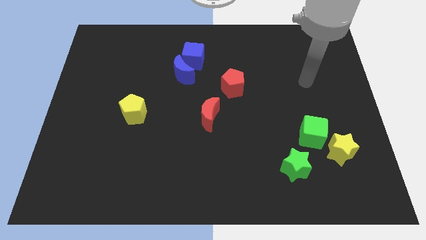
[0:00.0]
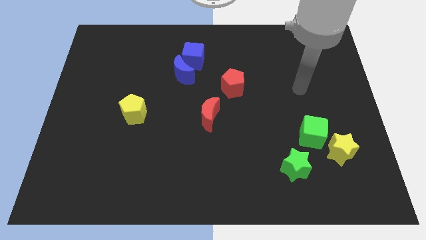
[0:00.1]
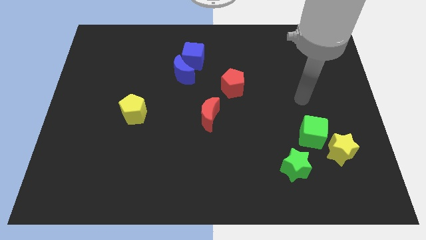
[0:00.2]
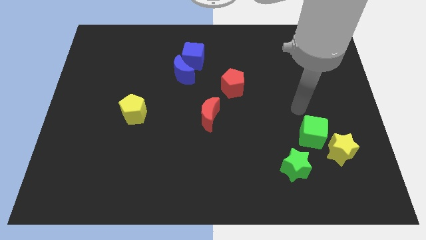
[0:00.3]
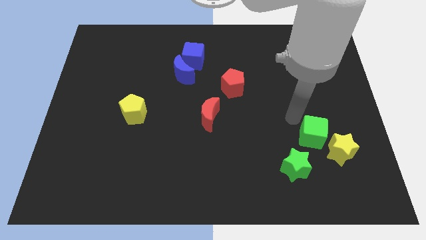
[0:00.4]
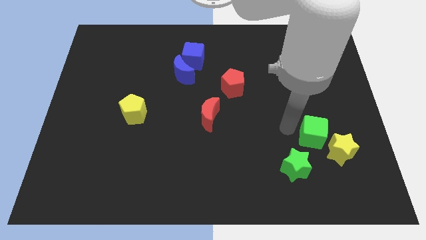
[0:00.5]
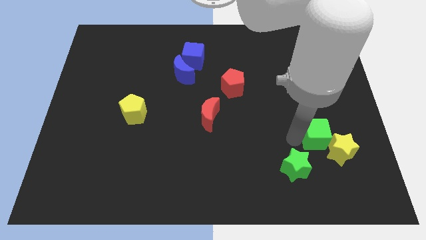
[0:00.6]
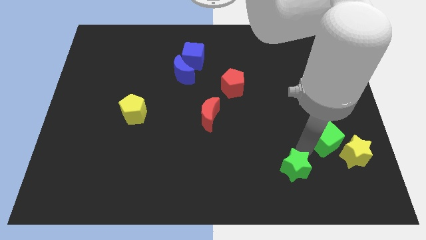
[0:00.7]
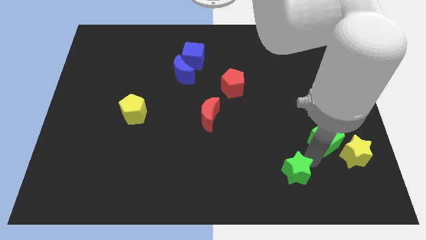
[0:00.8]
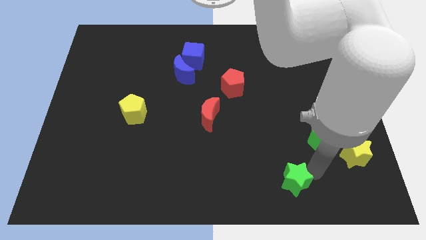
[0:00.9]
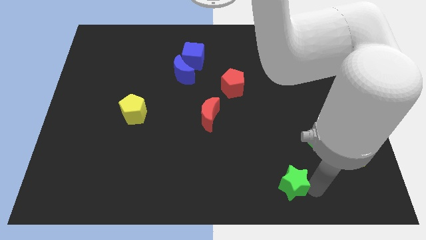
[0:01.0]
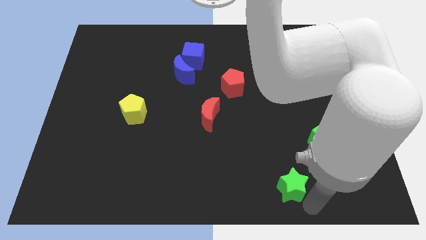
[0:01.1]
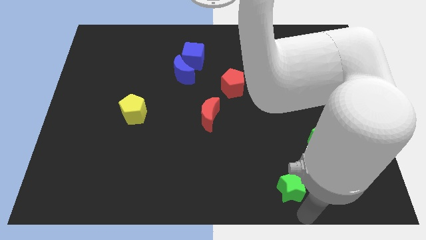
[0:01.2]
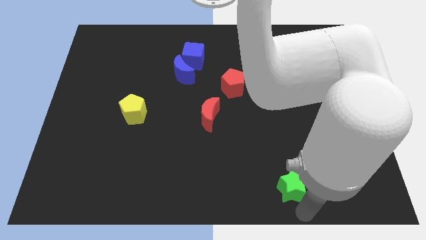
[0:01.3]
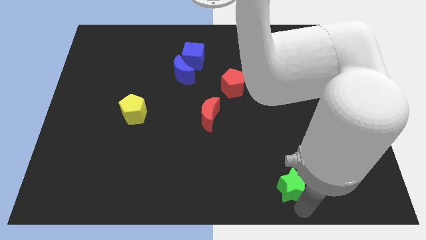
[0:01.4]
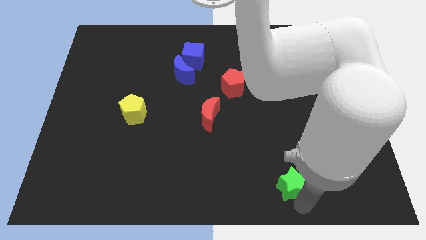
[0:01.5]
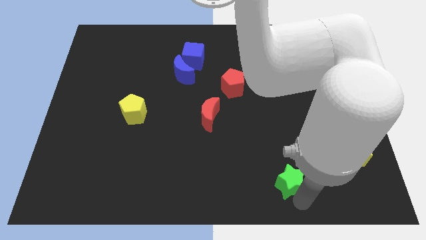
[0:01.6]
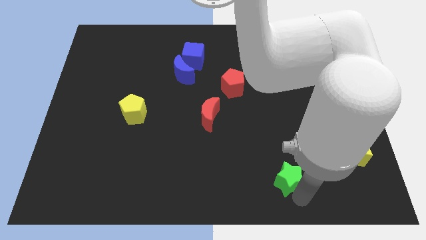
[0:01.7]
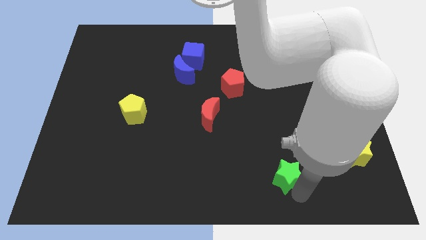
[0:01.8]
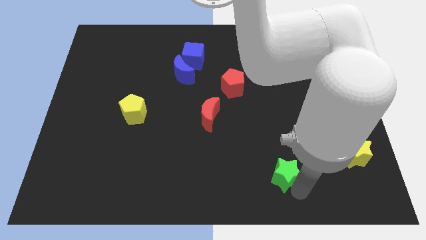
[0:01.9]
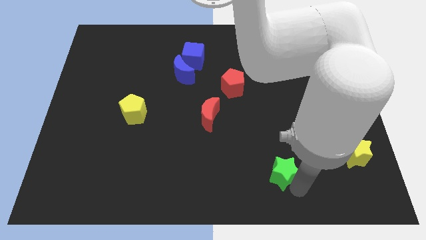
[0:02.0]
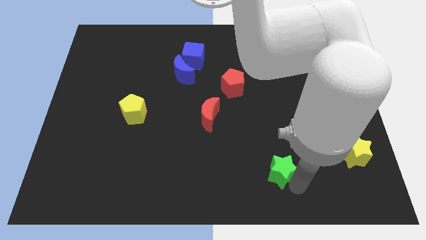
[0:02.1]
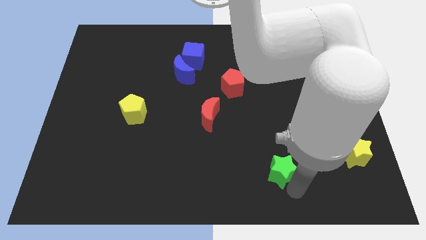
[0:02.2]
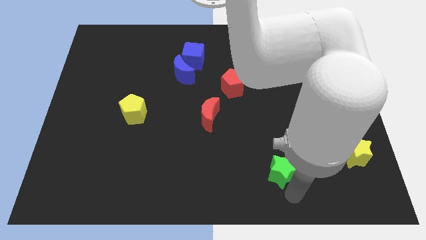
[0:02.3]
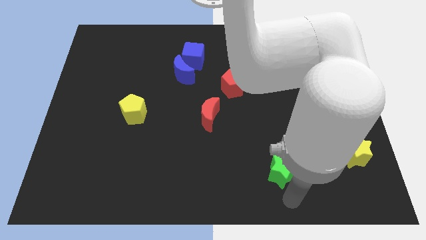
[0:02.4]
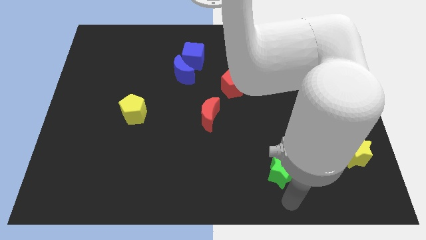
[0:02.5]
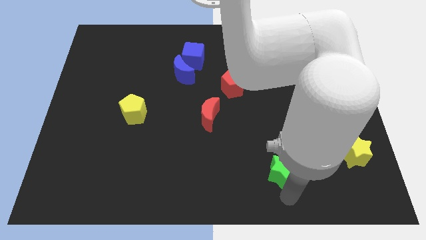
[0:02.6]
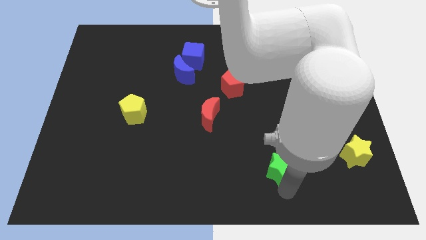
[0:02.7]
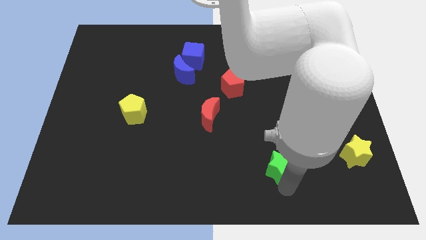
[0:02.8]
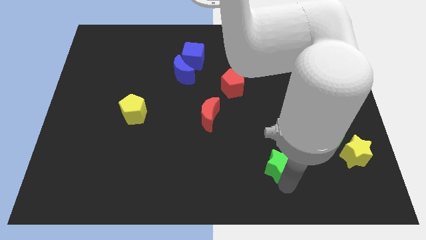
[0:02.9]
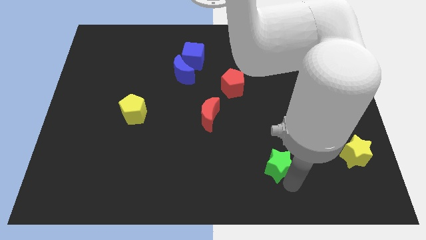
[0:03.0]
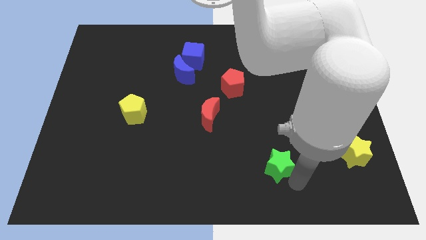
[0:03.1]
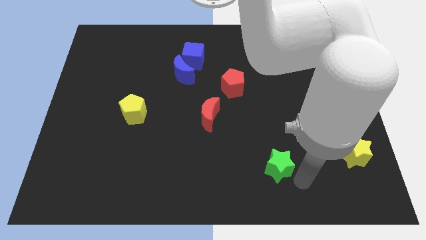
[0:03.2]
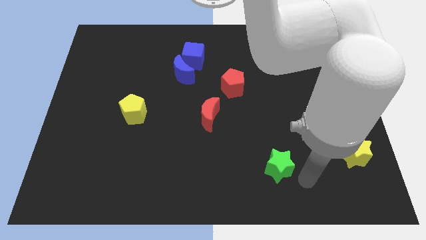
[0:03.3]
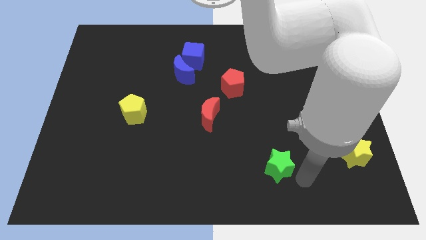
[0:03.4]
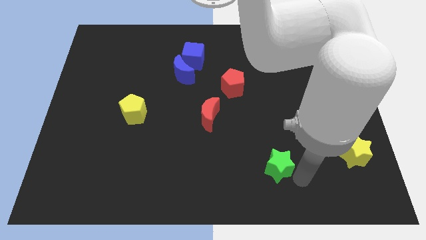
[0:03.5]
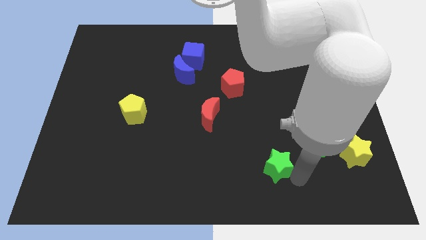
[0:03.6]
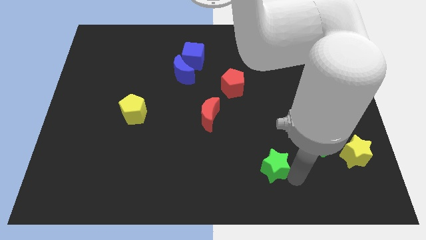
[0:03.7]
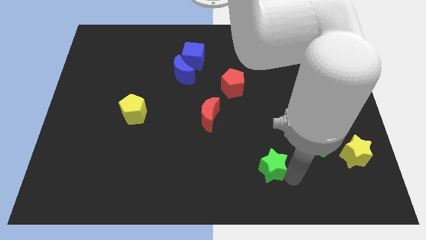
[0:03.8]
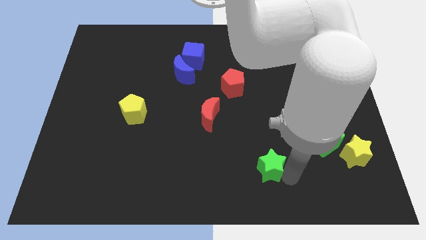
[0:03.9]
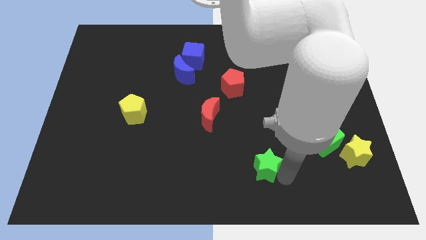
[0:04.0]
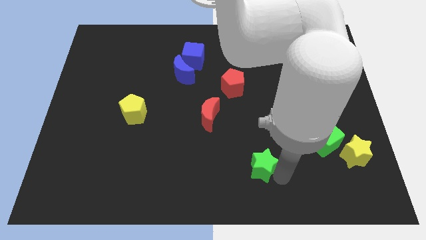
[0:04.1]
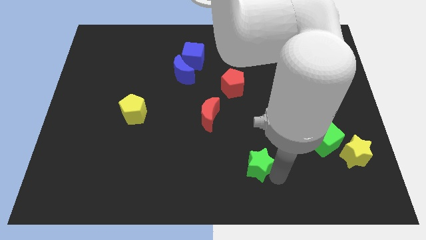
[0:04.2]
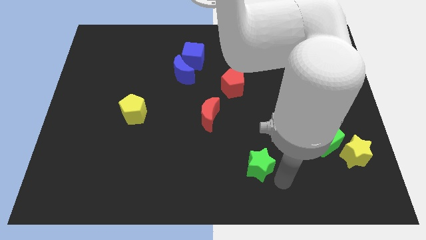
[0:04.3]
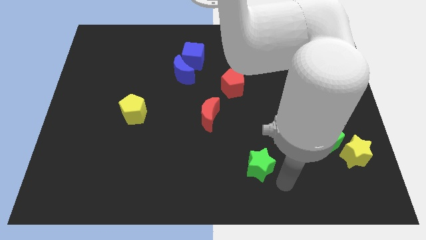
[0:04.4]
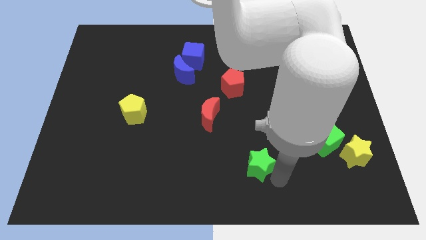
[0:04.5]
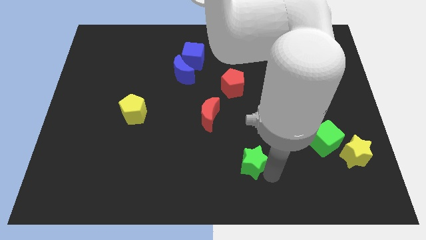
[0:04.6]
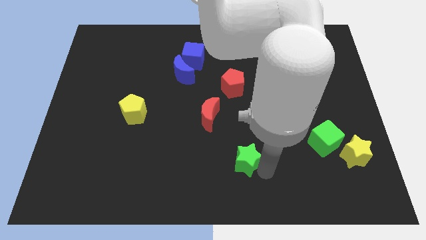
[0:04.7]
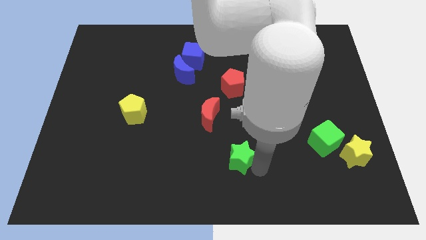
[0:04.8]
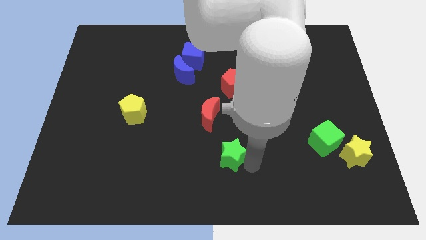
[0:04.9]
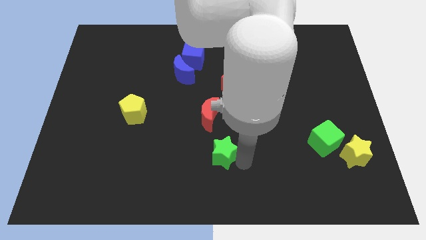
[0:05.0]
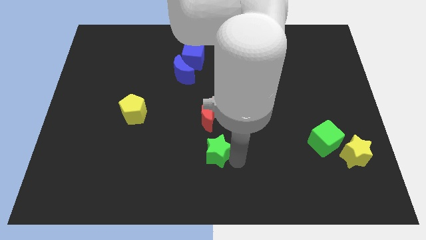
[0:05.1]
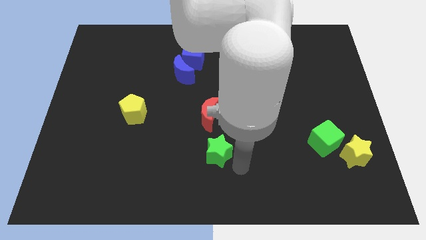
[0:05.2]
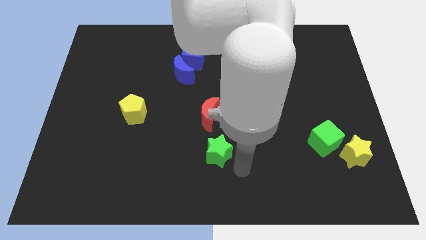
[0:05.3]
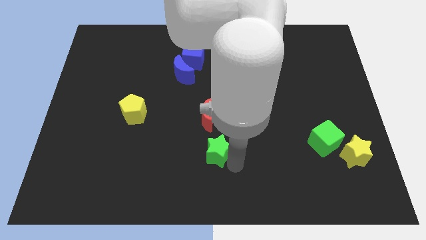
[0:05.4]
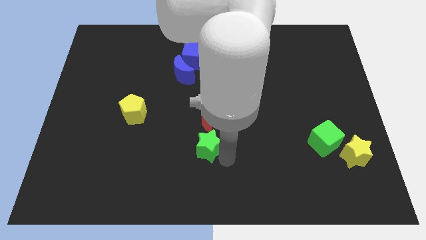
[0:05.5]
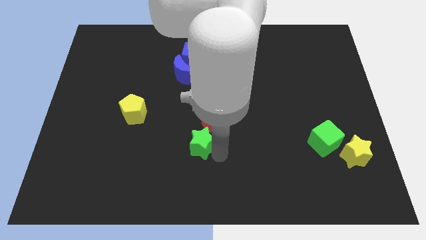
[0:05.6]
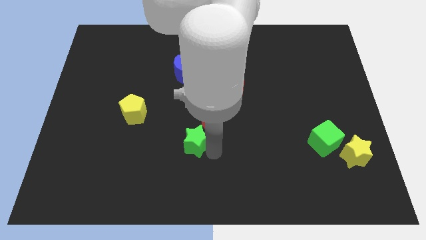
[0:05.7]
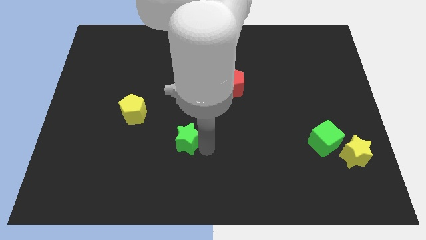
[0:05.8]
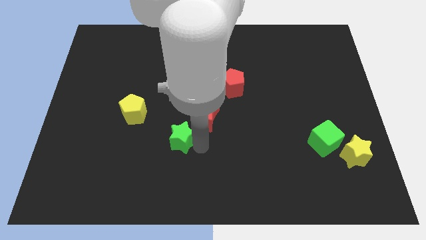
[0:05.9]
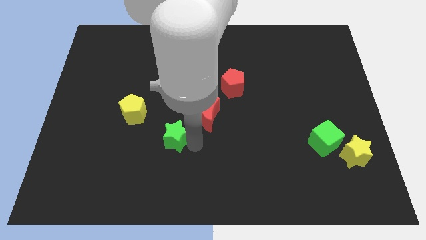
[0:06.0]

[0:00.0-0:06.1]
put the green star diagonally down and to the right of the yellow pentagon

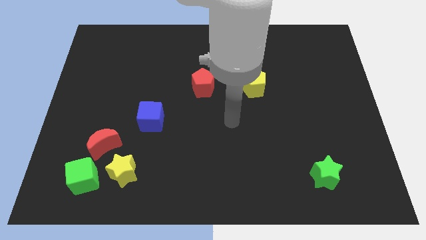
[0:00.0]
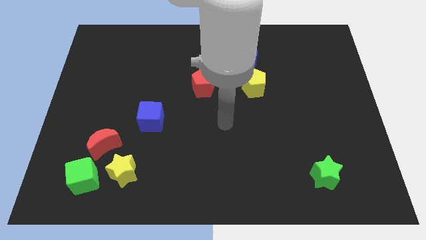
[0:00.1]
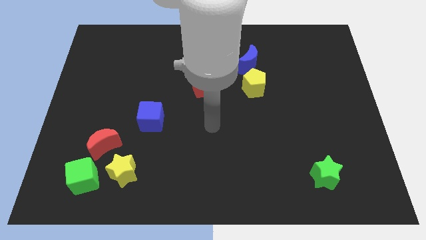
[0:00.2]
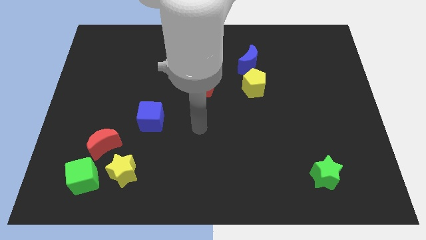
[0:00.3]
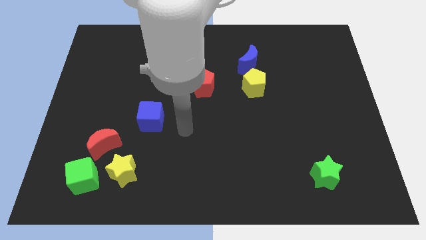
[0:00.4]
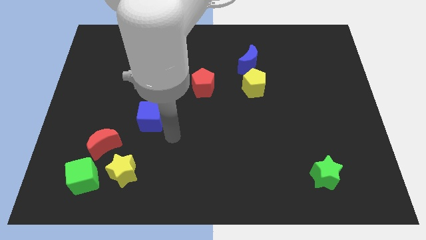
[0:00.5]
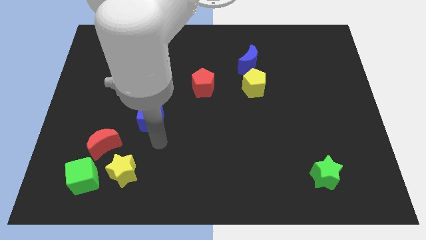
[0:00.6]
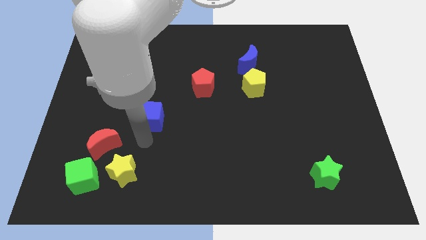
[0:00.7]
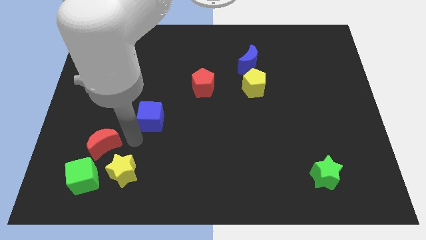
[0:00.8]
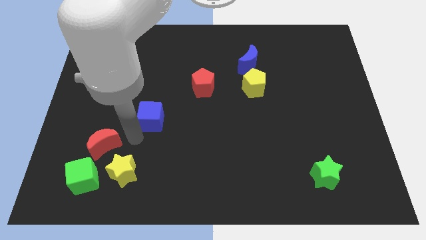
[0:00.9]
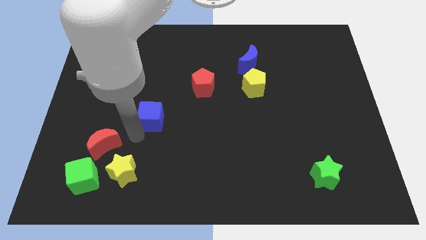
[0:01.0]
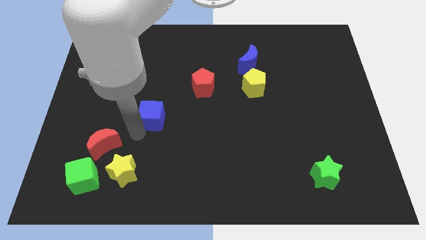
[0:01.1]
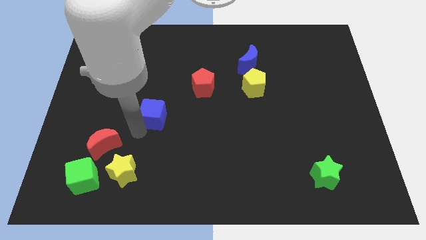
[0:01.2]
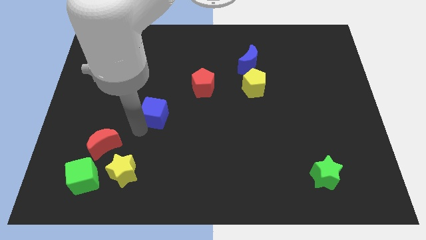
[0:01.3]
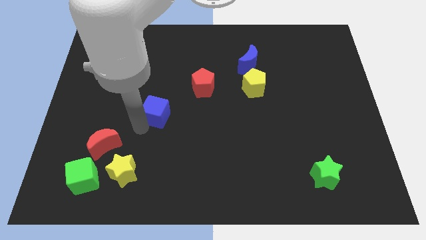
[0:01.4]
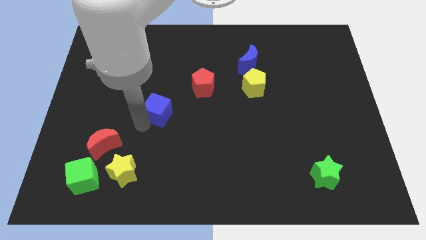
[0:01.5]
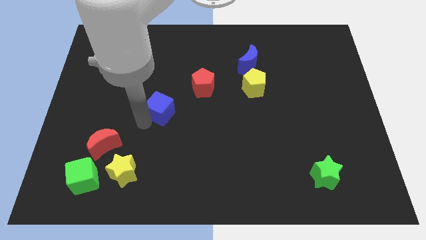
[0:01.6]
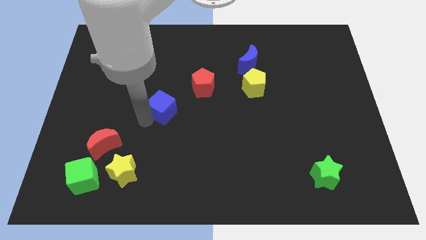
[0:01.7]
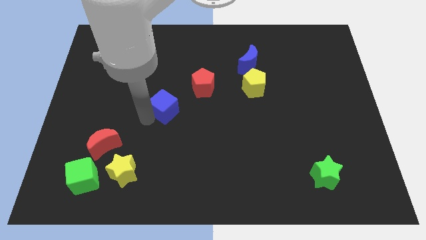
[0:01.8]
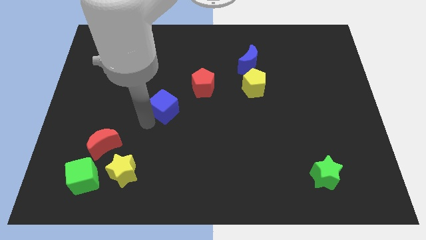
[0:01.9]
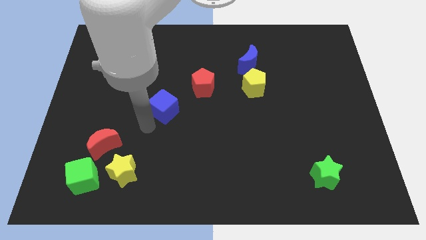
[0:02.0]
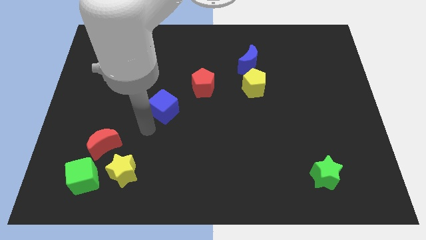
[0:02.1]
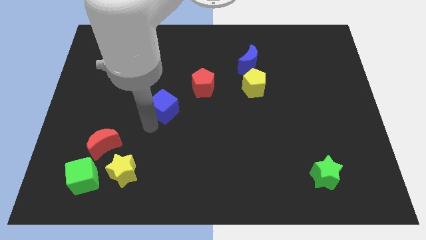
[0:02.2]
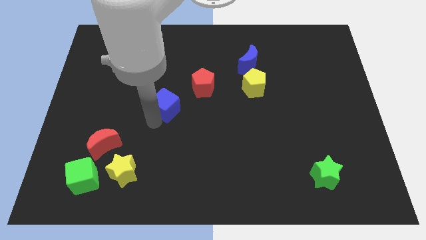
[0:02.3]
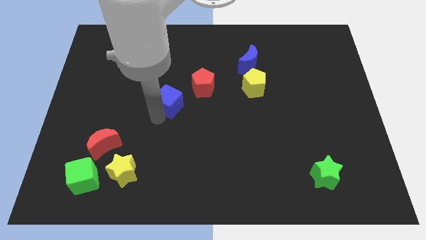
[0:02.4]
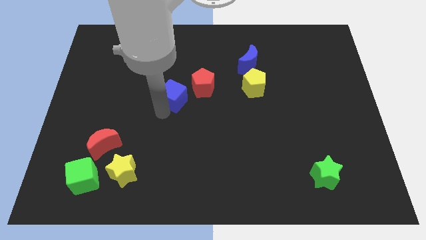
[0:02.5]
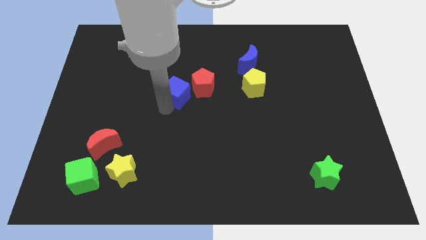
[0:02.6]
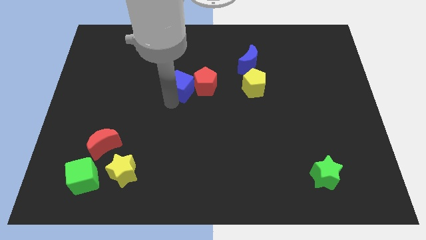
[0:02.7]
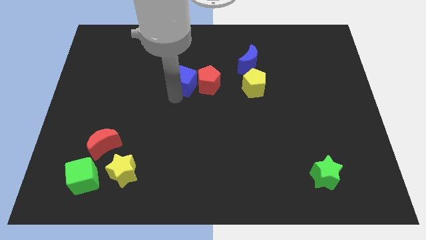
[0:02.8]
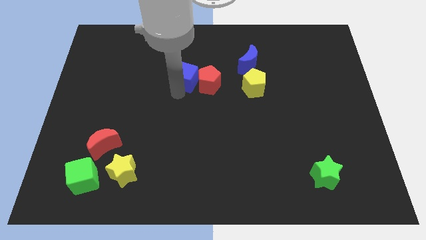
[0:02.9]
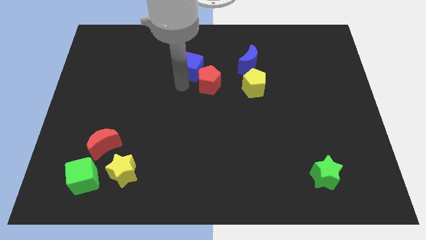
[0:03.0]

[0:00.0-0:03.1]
slide the blue cube to the top of the red pentagon
